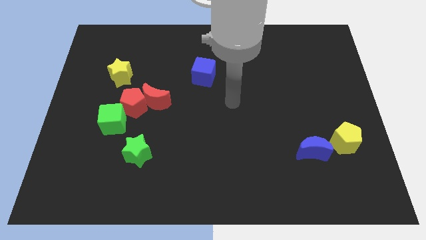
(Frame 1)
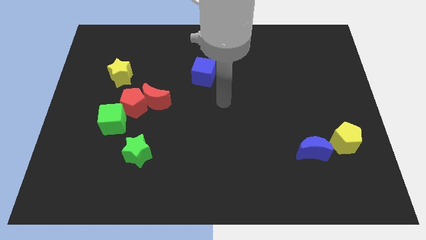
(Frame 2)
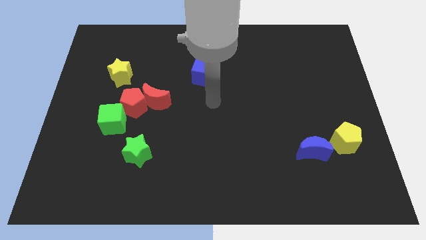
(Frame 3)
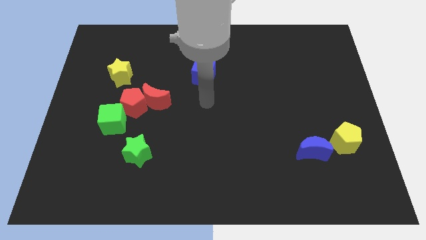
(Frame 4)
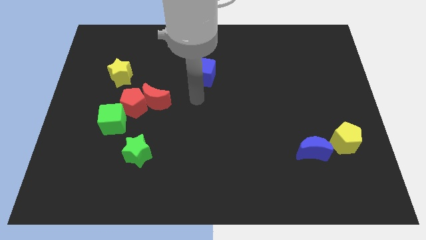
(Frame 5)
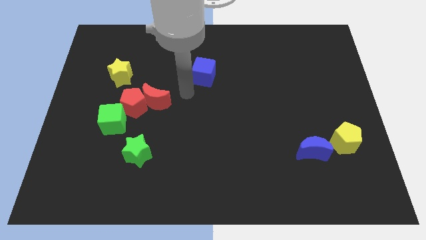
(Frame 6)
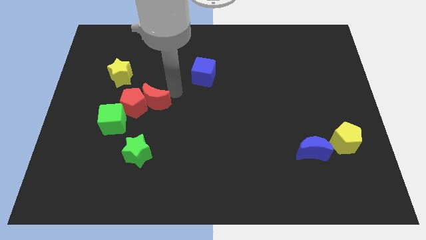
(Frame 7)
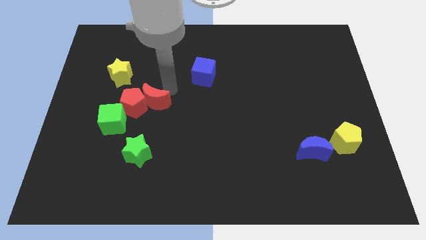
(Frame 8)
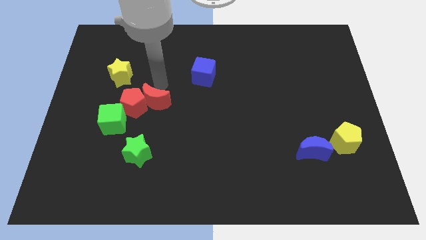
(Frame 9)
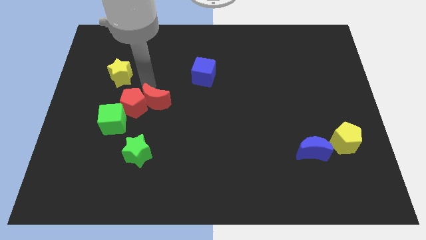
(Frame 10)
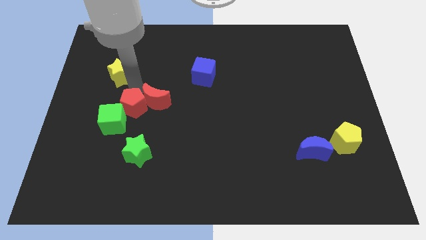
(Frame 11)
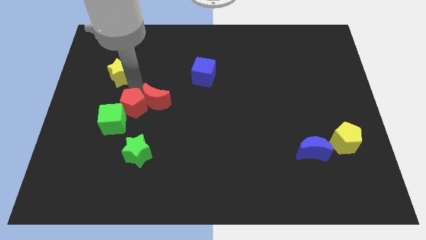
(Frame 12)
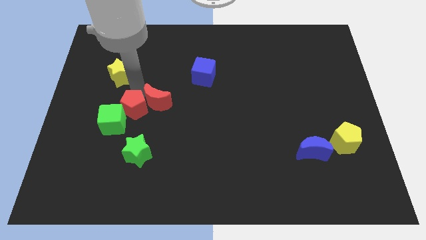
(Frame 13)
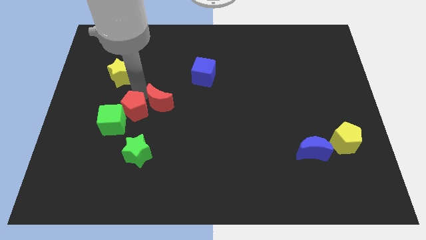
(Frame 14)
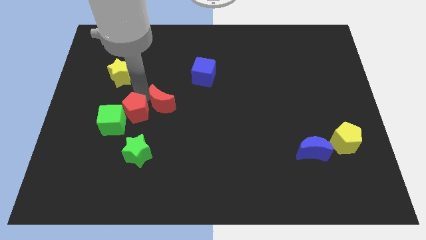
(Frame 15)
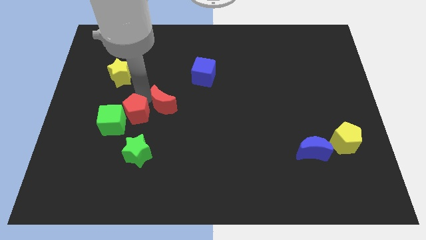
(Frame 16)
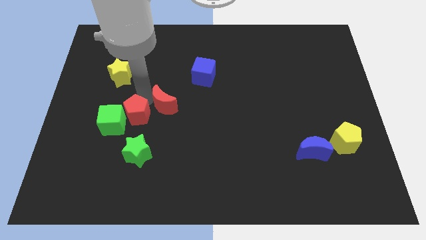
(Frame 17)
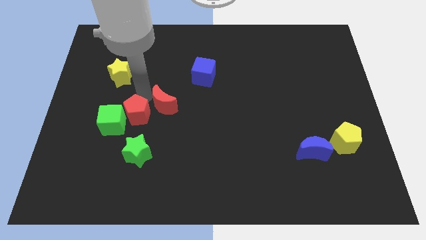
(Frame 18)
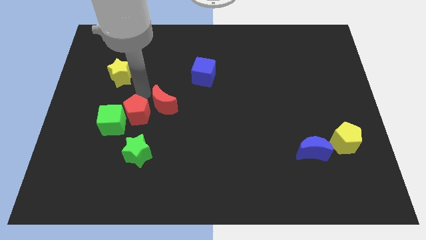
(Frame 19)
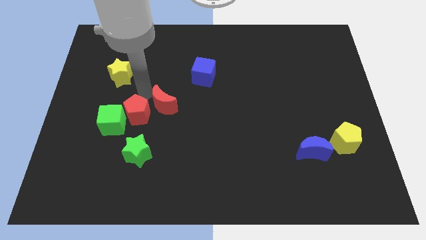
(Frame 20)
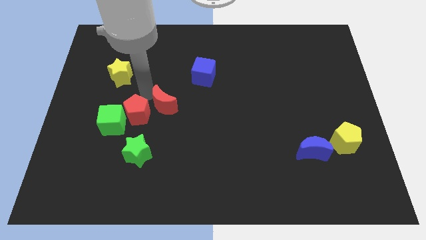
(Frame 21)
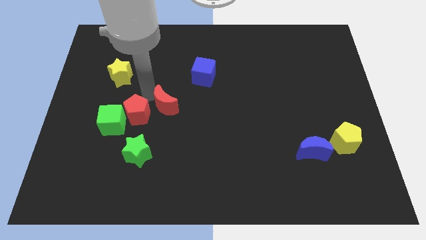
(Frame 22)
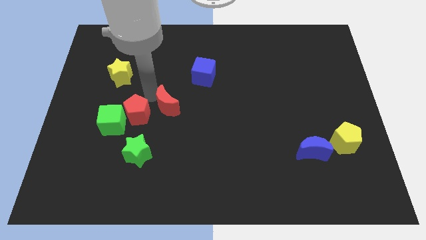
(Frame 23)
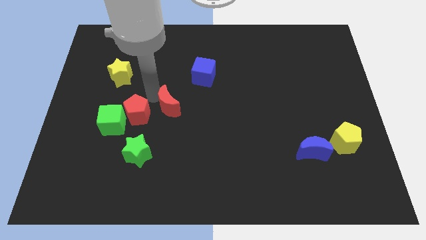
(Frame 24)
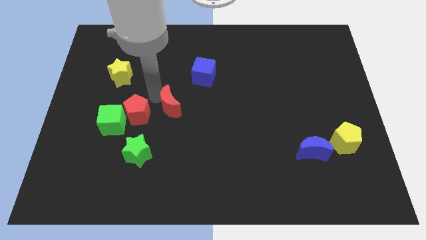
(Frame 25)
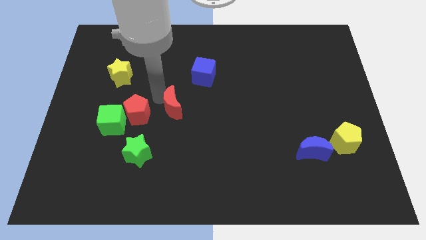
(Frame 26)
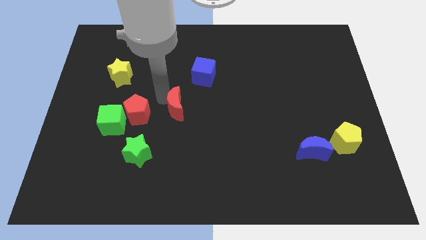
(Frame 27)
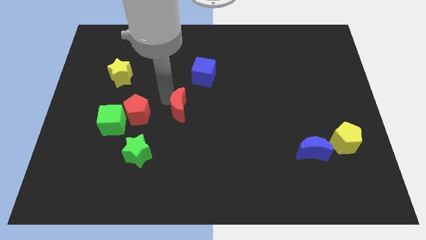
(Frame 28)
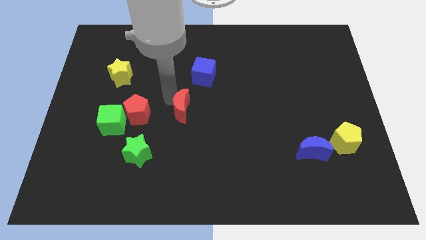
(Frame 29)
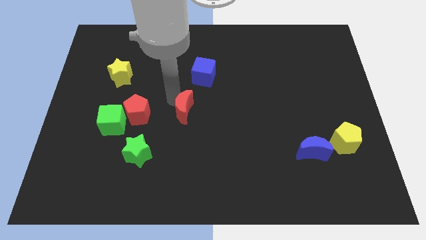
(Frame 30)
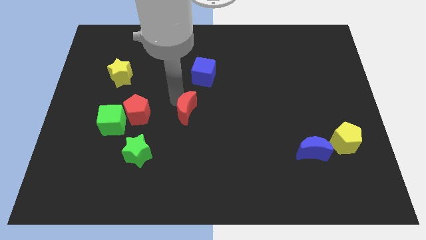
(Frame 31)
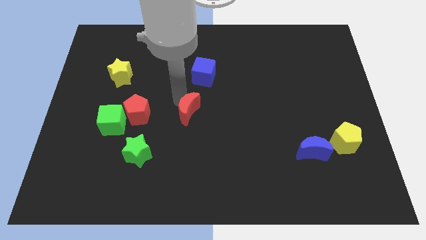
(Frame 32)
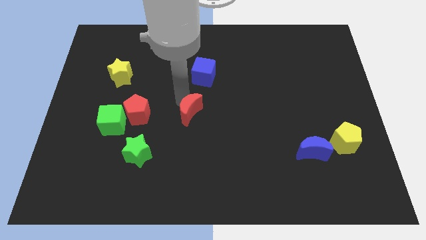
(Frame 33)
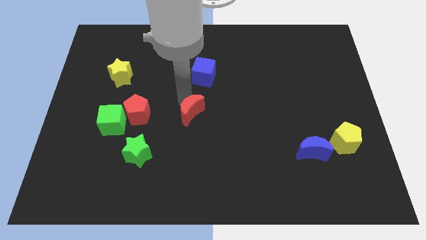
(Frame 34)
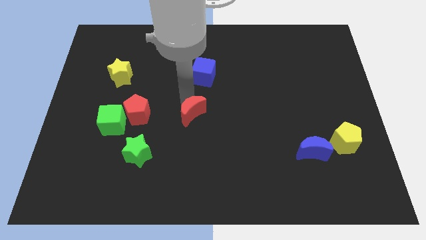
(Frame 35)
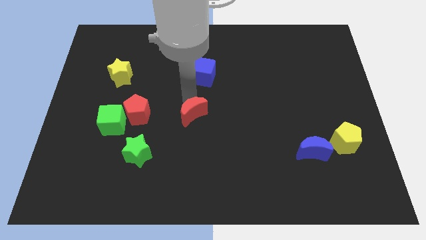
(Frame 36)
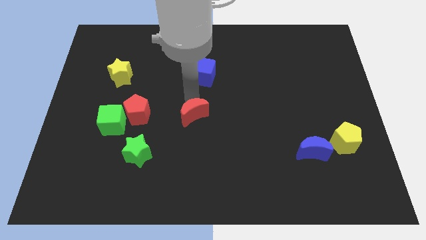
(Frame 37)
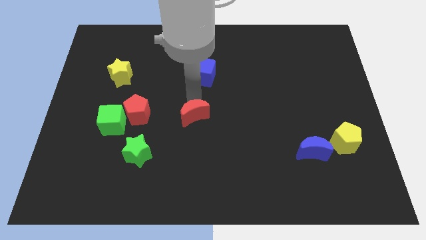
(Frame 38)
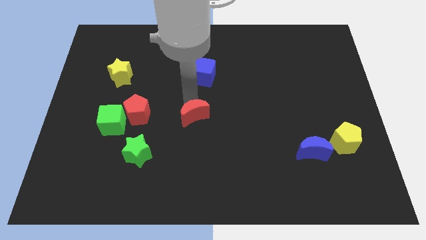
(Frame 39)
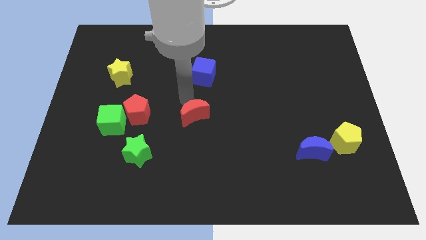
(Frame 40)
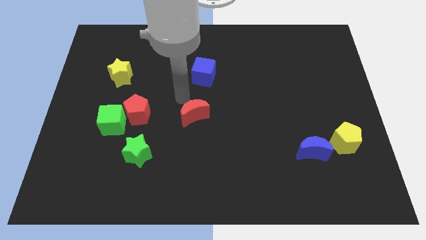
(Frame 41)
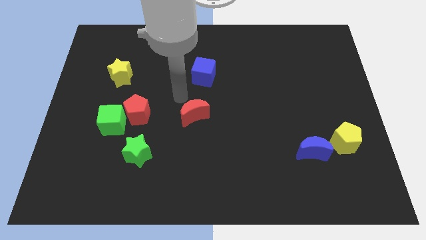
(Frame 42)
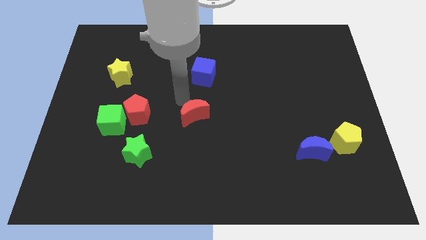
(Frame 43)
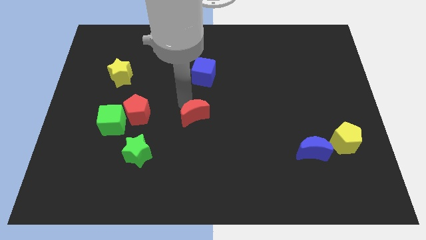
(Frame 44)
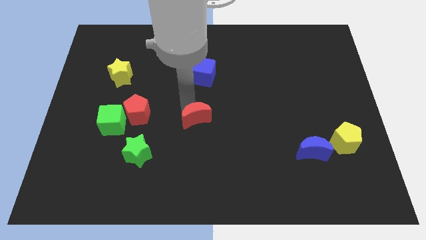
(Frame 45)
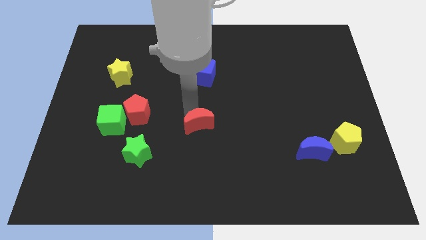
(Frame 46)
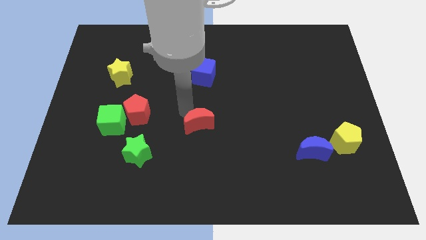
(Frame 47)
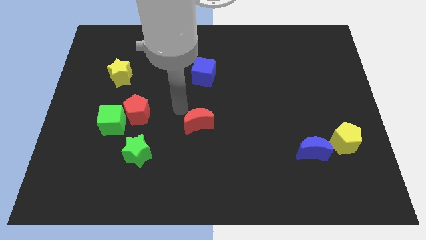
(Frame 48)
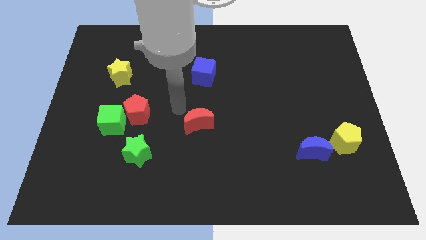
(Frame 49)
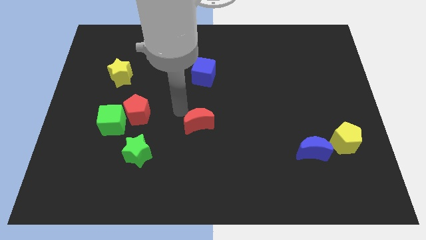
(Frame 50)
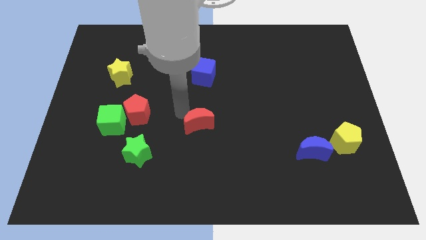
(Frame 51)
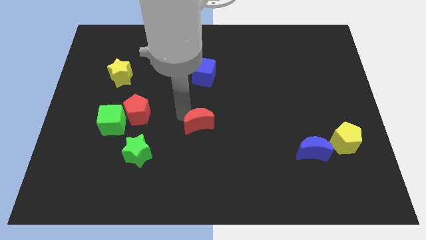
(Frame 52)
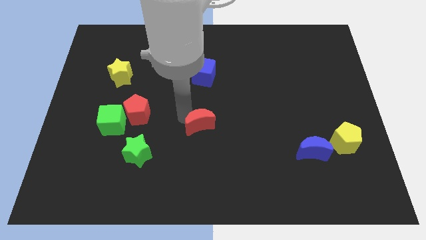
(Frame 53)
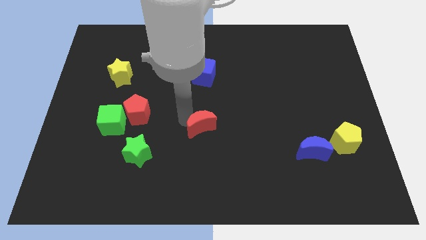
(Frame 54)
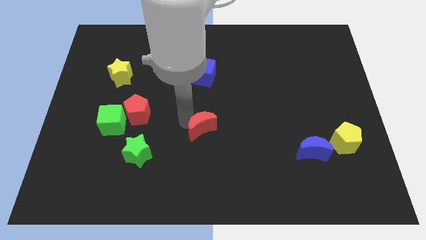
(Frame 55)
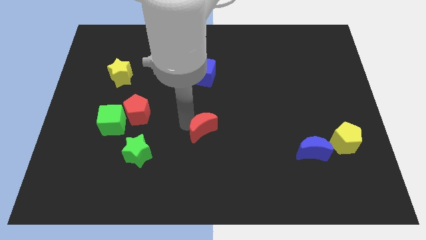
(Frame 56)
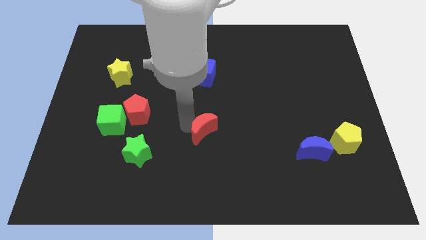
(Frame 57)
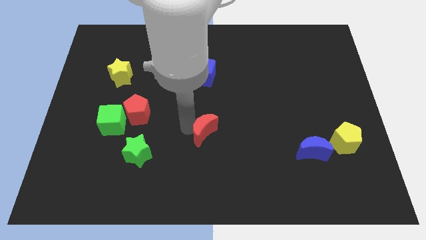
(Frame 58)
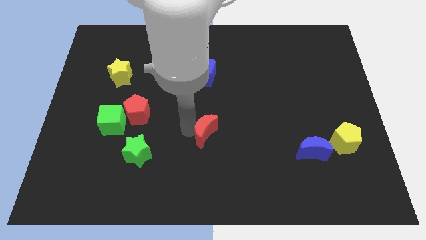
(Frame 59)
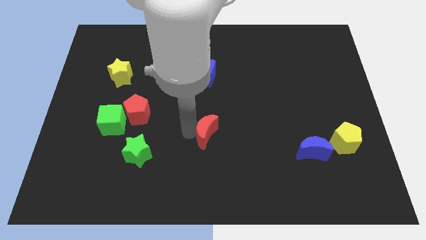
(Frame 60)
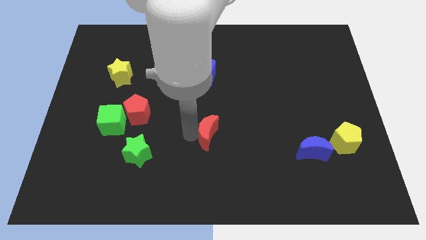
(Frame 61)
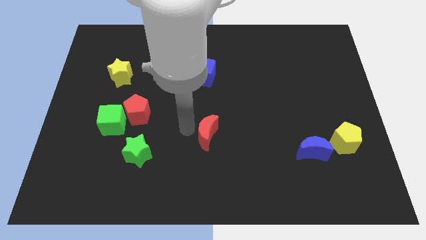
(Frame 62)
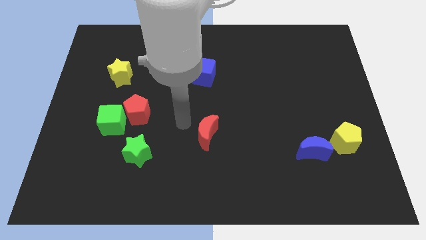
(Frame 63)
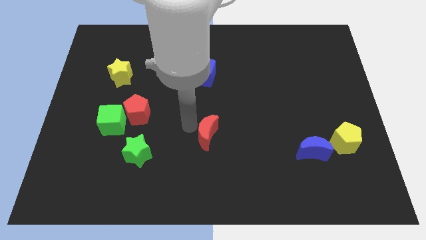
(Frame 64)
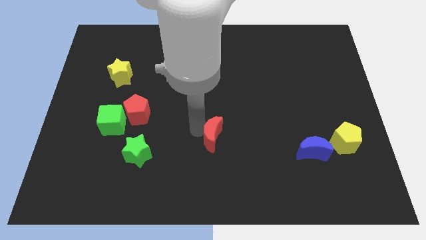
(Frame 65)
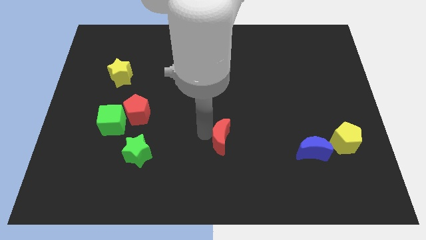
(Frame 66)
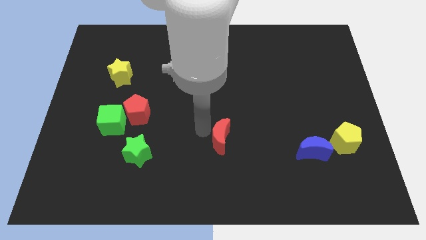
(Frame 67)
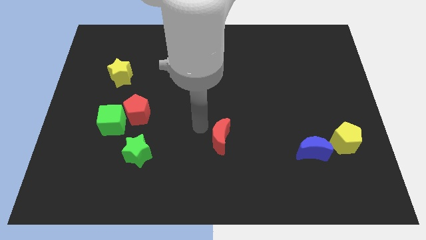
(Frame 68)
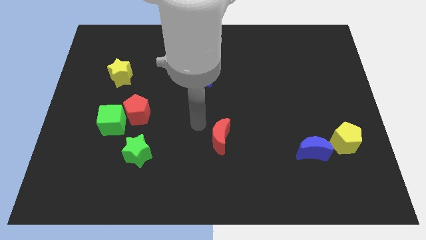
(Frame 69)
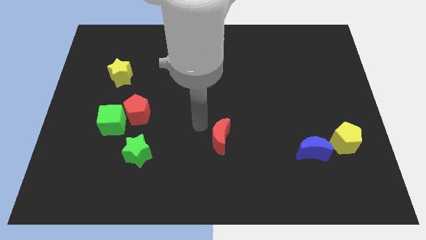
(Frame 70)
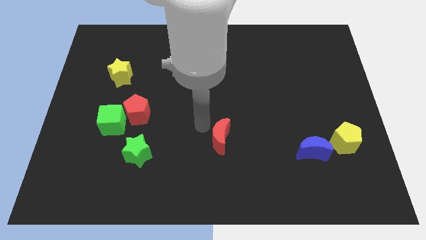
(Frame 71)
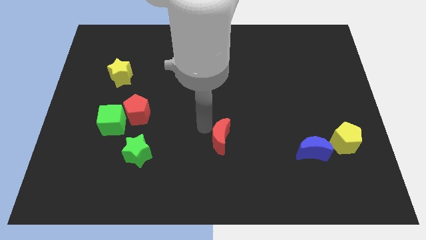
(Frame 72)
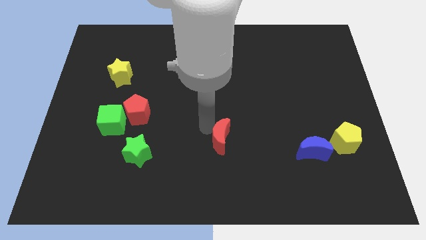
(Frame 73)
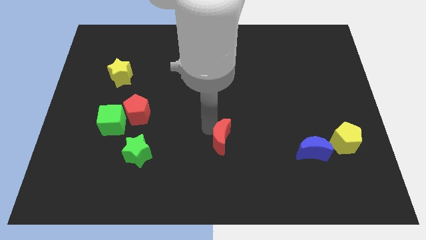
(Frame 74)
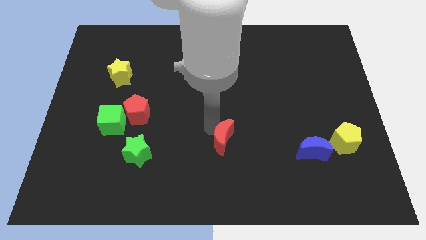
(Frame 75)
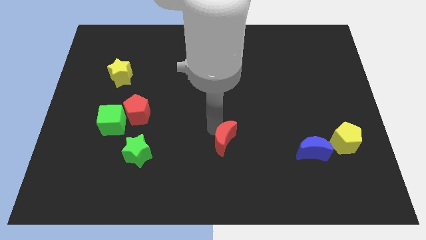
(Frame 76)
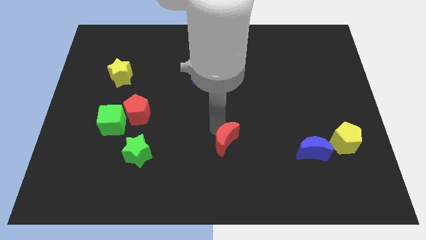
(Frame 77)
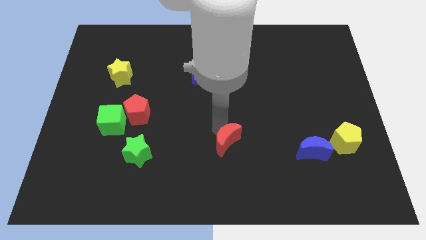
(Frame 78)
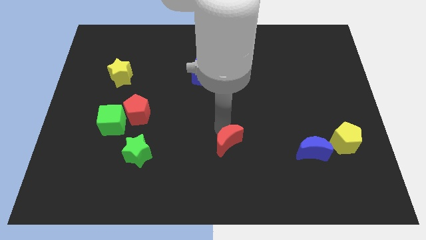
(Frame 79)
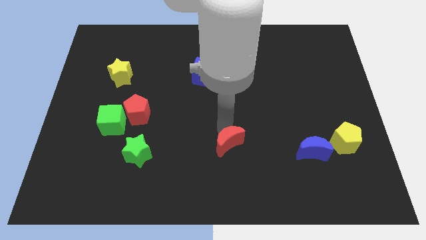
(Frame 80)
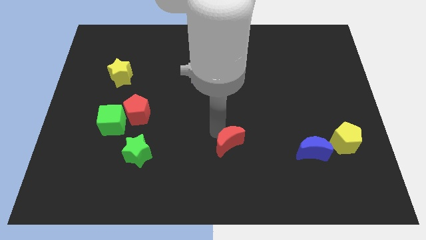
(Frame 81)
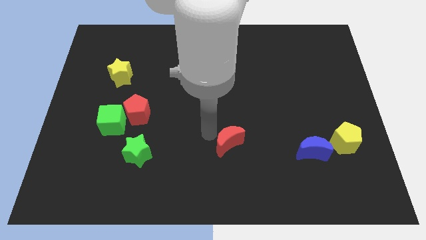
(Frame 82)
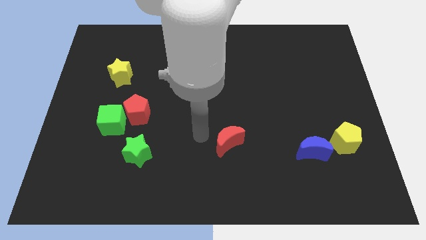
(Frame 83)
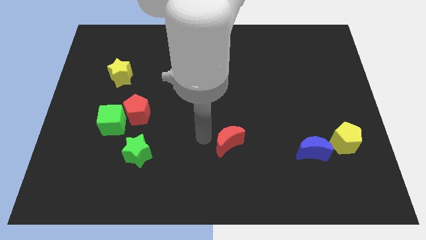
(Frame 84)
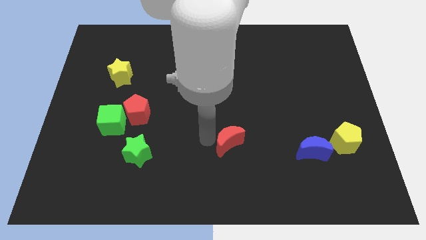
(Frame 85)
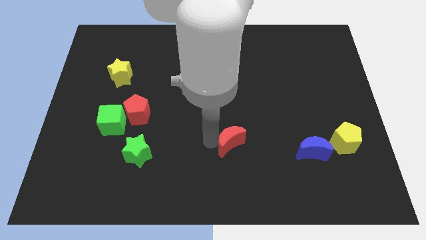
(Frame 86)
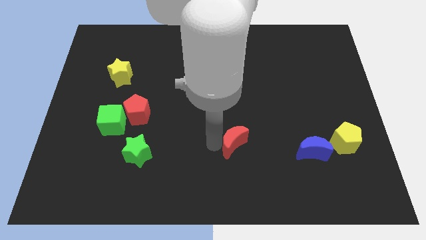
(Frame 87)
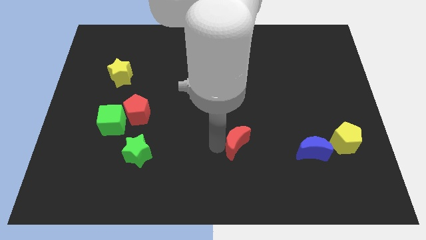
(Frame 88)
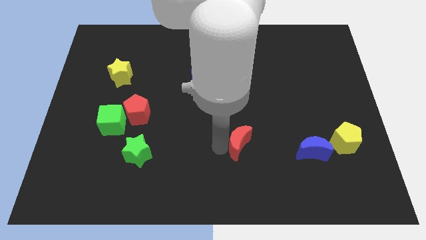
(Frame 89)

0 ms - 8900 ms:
slide the red moon just left of the blue moon
